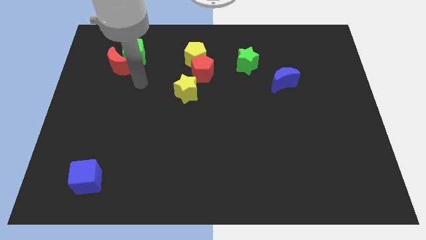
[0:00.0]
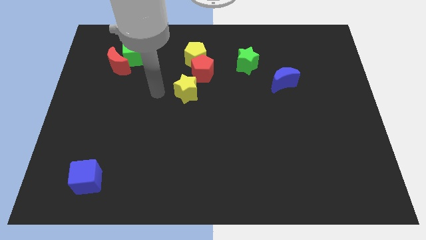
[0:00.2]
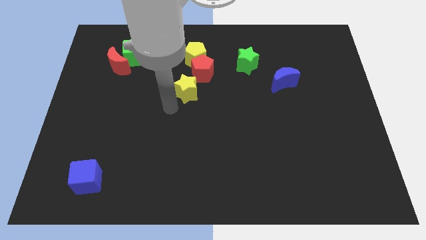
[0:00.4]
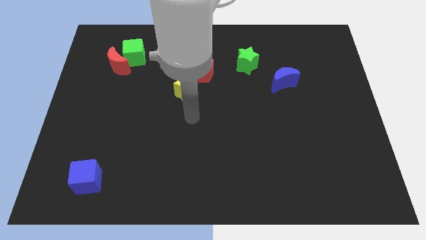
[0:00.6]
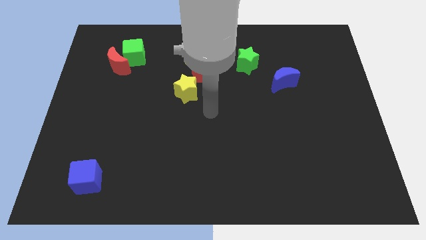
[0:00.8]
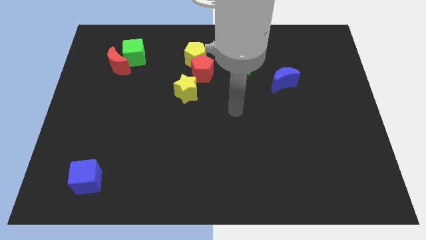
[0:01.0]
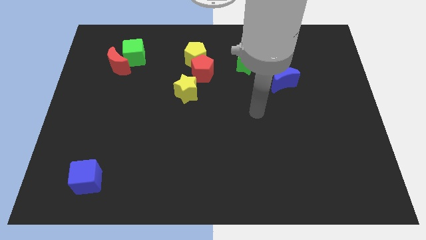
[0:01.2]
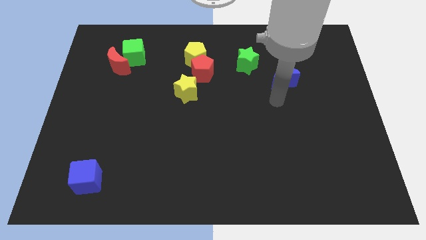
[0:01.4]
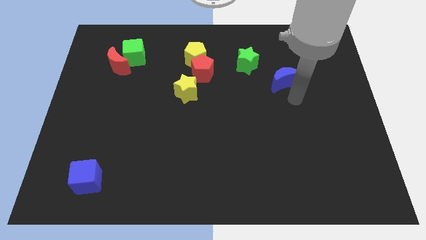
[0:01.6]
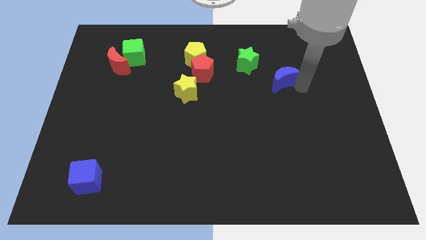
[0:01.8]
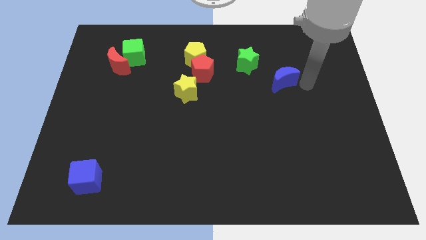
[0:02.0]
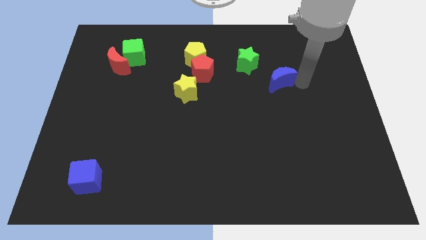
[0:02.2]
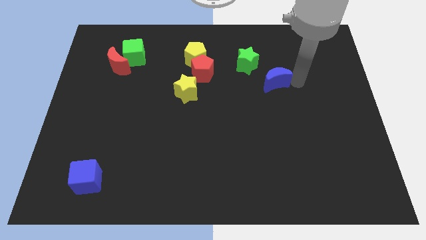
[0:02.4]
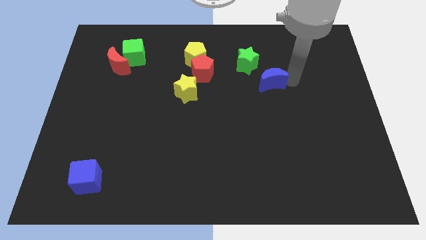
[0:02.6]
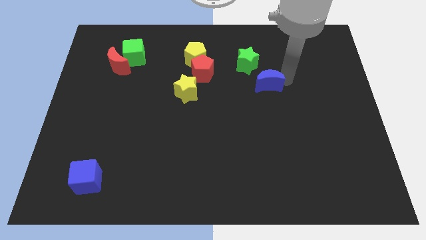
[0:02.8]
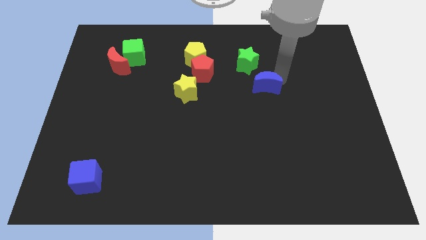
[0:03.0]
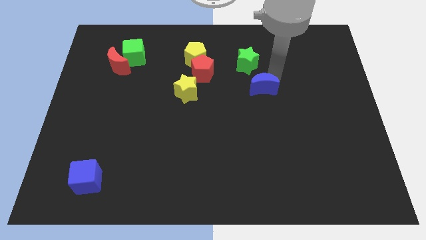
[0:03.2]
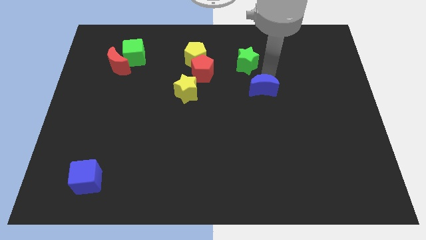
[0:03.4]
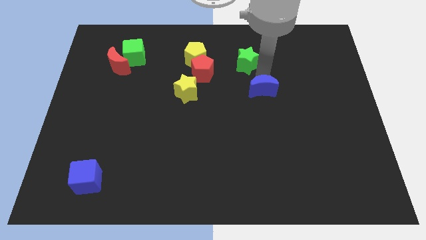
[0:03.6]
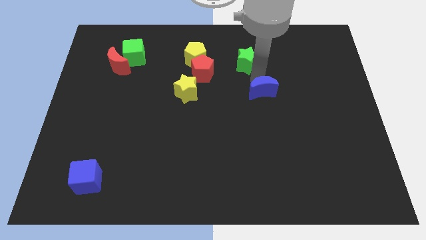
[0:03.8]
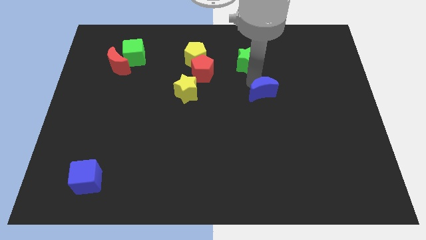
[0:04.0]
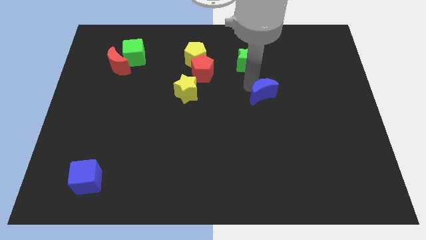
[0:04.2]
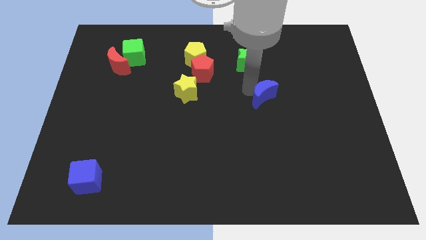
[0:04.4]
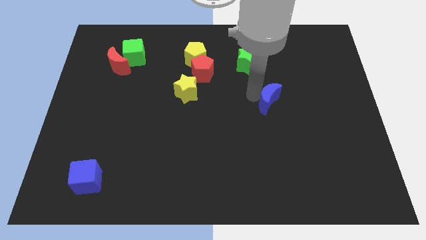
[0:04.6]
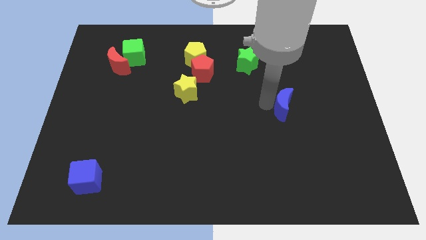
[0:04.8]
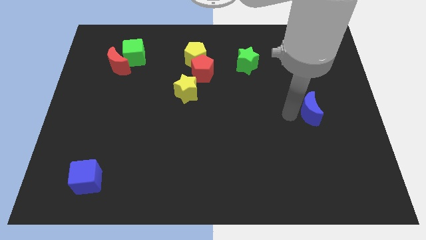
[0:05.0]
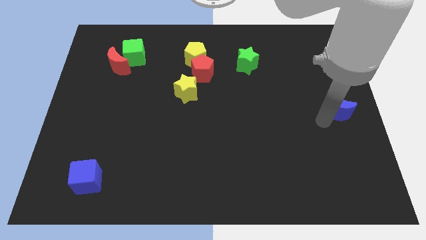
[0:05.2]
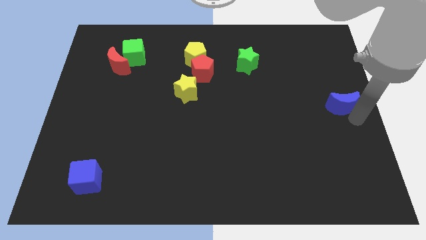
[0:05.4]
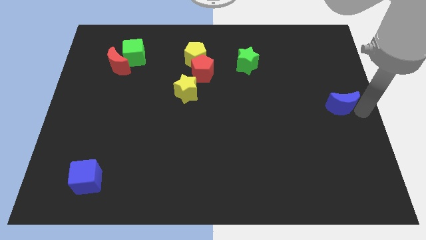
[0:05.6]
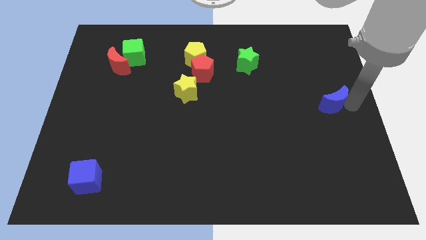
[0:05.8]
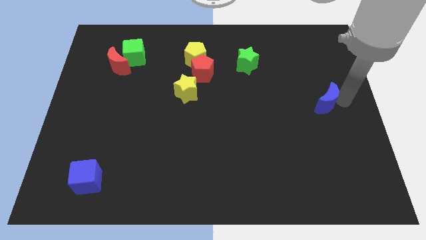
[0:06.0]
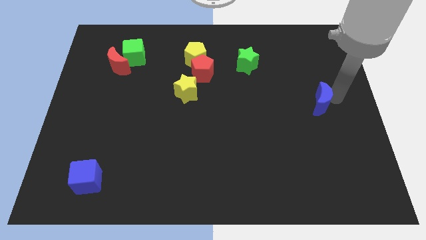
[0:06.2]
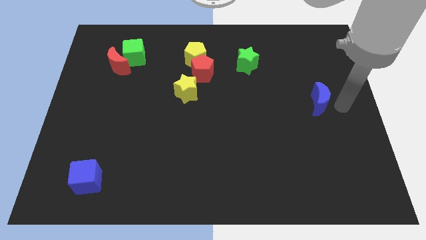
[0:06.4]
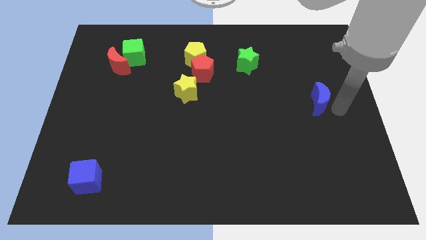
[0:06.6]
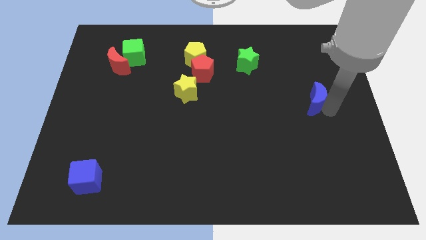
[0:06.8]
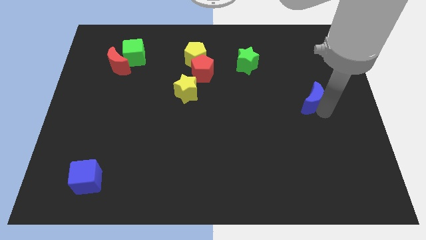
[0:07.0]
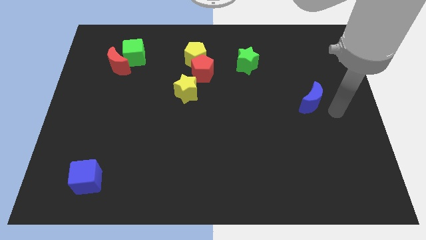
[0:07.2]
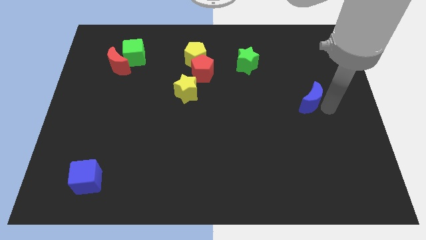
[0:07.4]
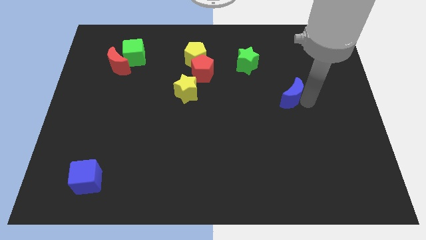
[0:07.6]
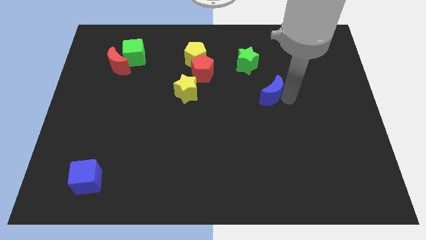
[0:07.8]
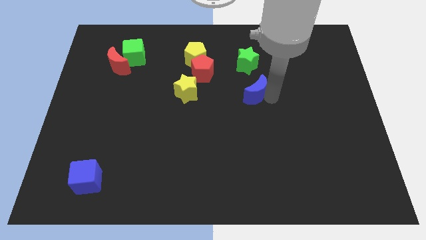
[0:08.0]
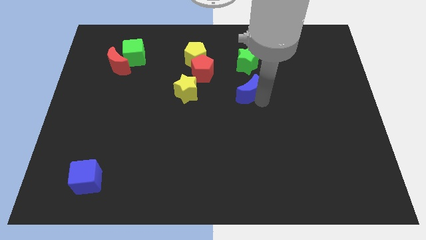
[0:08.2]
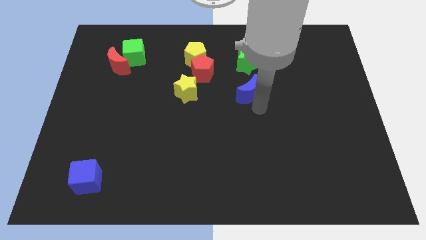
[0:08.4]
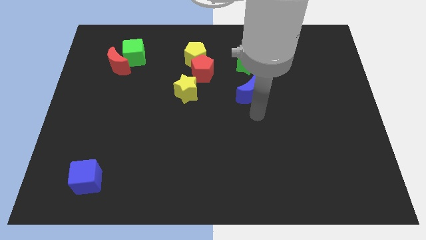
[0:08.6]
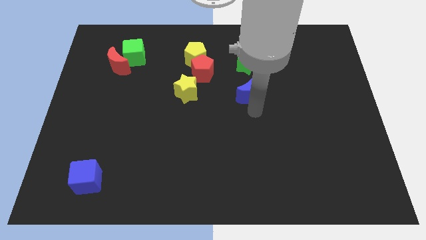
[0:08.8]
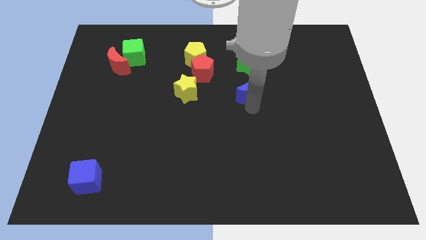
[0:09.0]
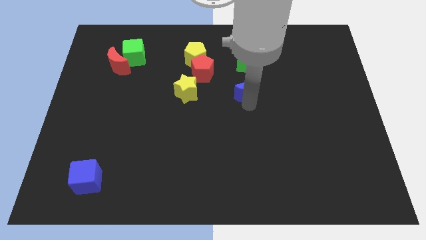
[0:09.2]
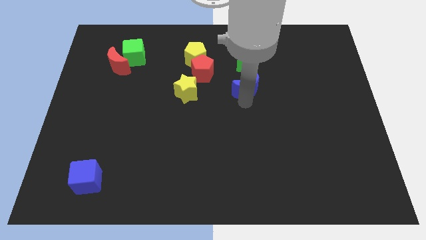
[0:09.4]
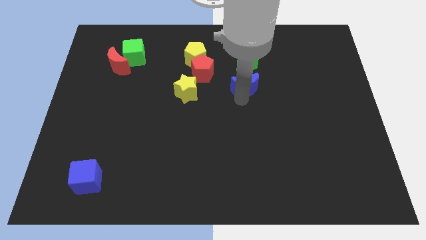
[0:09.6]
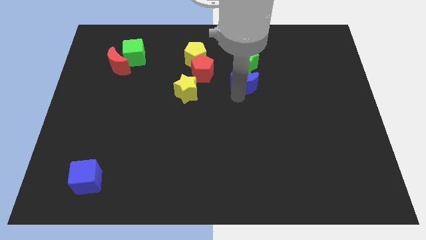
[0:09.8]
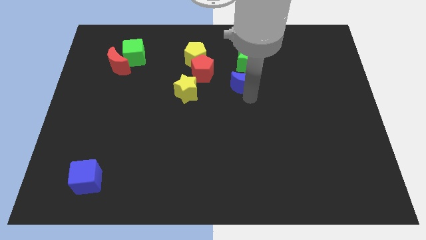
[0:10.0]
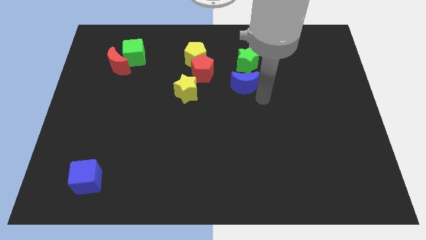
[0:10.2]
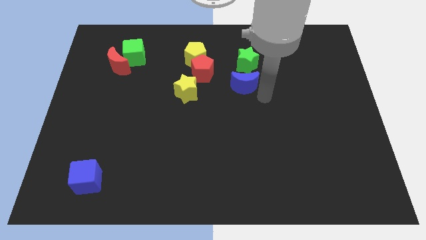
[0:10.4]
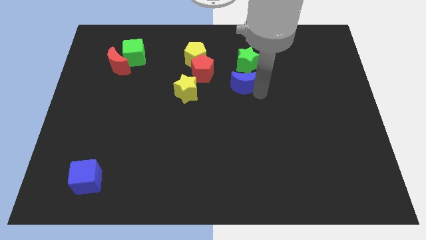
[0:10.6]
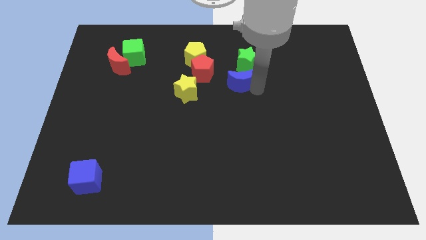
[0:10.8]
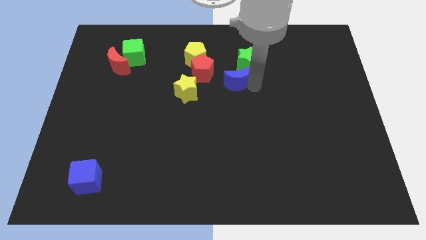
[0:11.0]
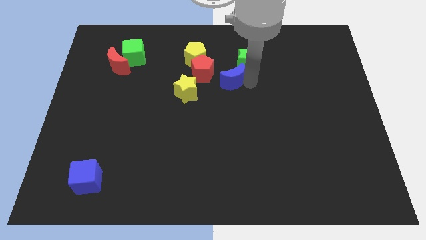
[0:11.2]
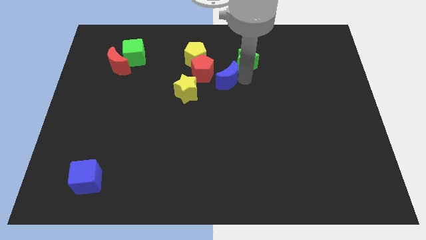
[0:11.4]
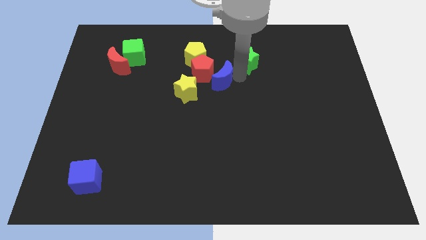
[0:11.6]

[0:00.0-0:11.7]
push the blue moon close to the red pentagon

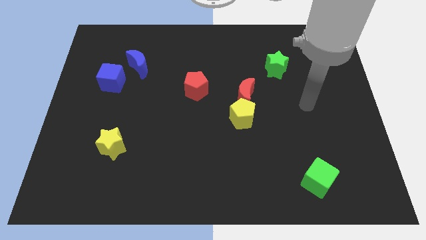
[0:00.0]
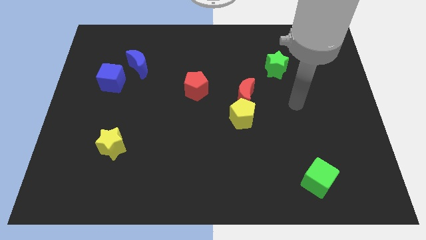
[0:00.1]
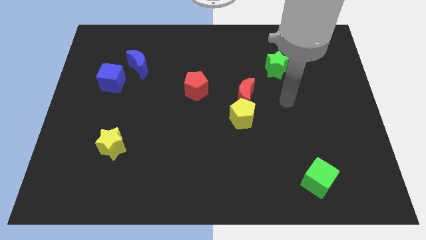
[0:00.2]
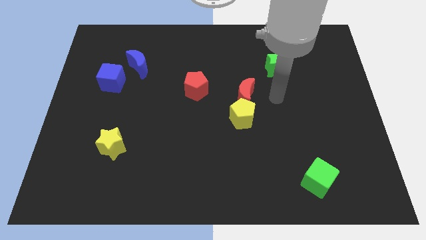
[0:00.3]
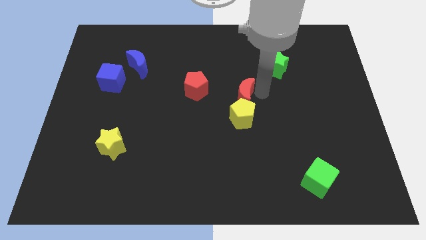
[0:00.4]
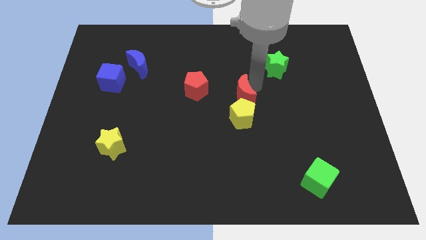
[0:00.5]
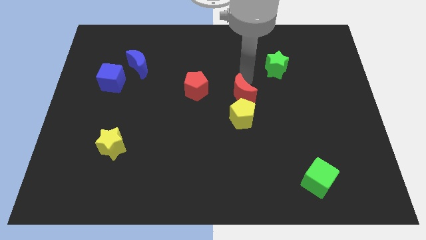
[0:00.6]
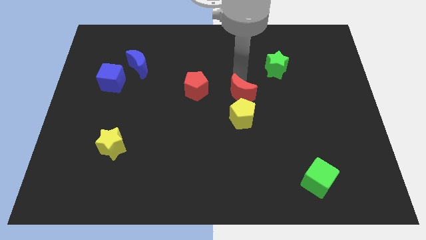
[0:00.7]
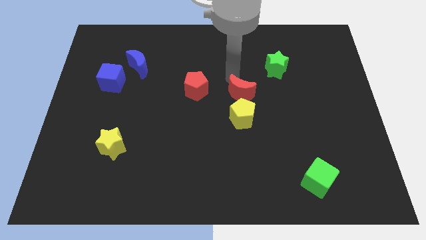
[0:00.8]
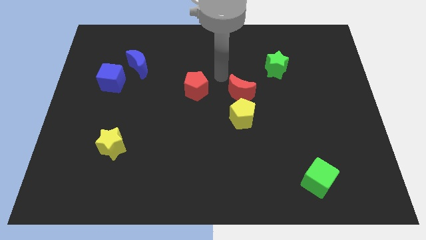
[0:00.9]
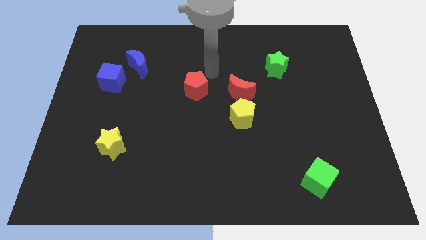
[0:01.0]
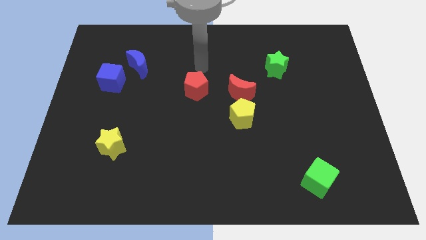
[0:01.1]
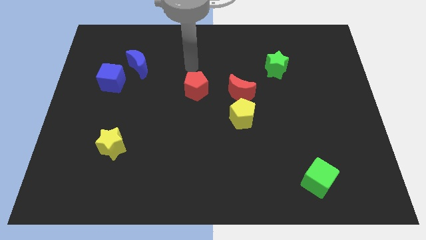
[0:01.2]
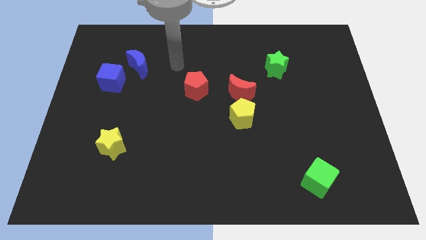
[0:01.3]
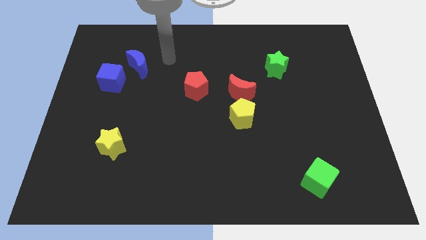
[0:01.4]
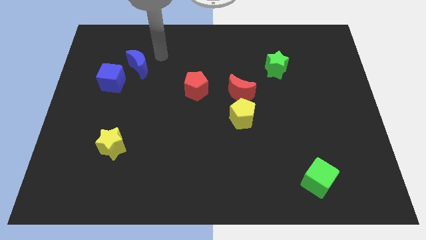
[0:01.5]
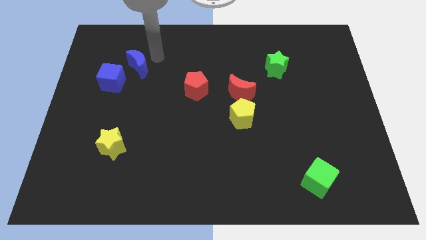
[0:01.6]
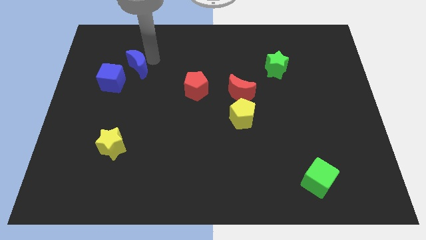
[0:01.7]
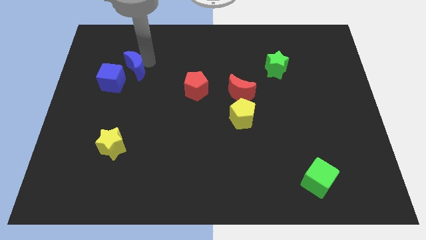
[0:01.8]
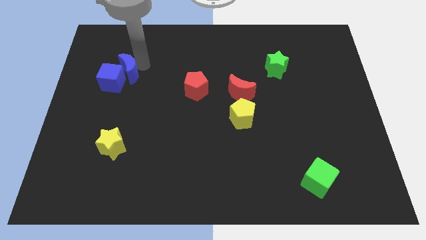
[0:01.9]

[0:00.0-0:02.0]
put the blue moon close to the blue cube
